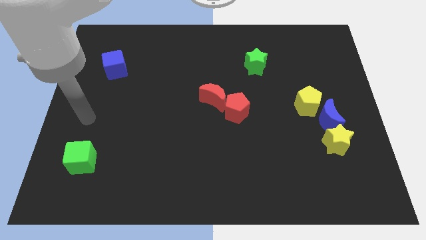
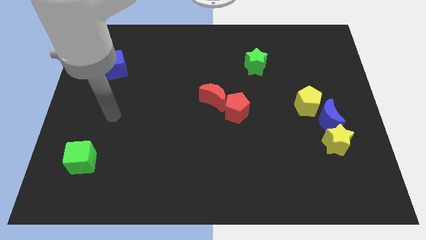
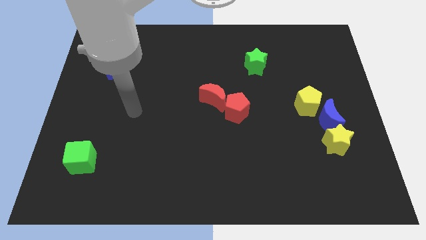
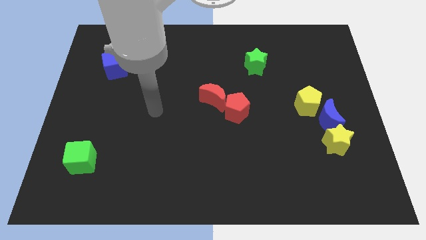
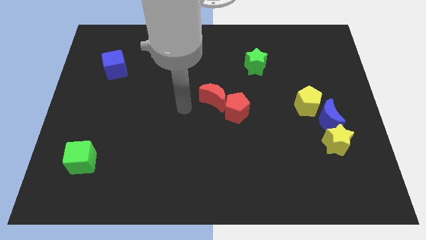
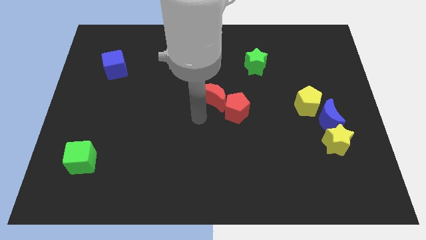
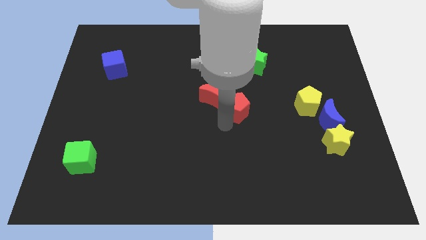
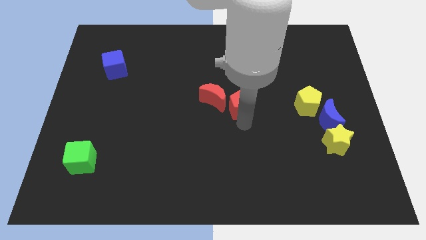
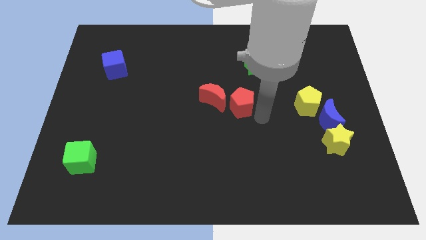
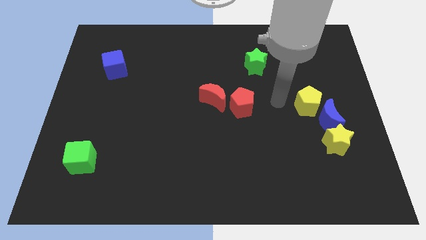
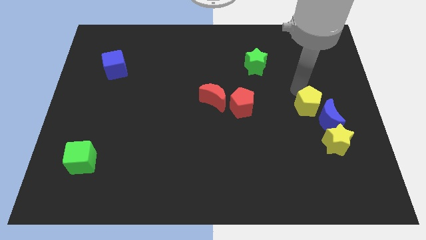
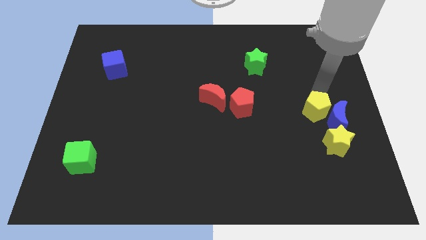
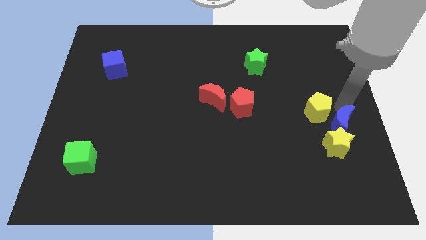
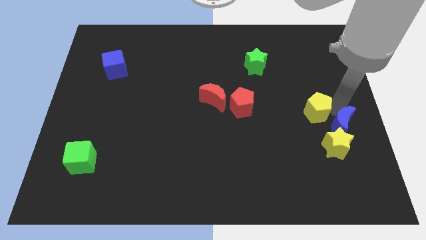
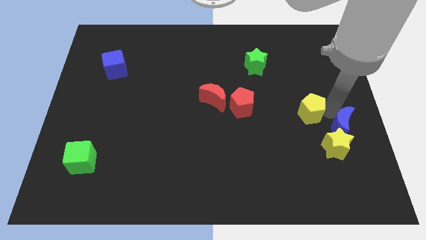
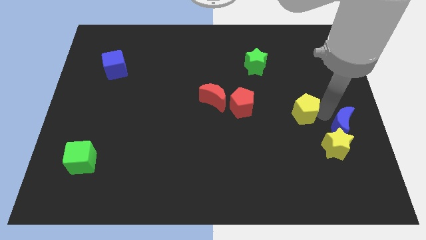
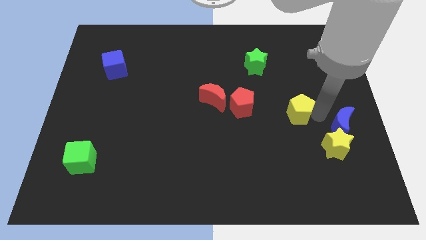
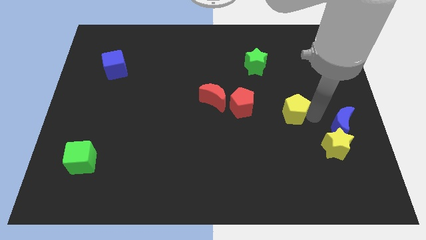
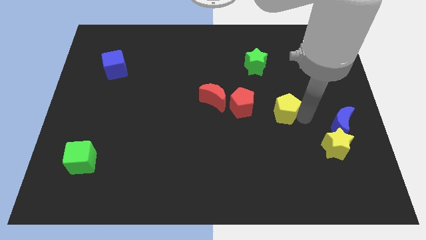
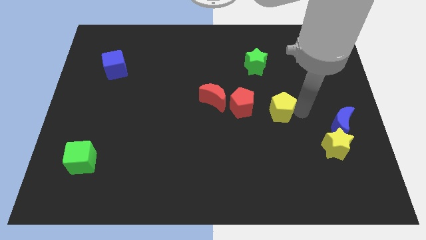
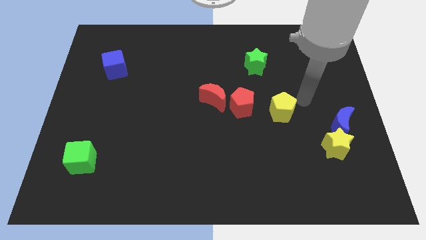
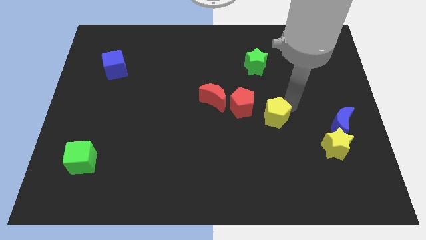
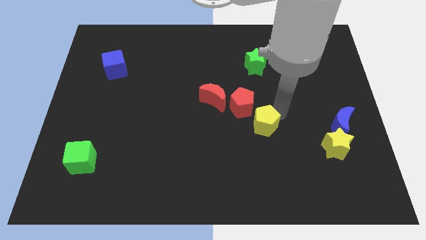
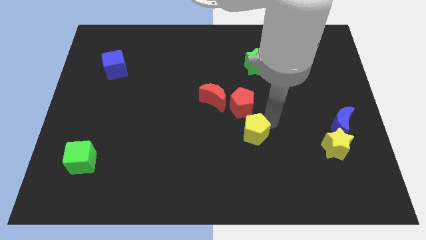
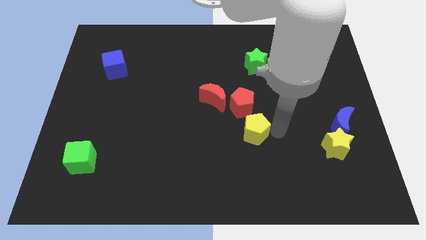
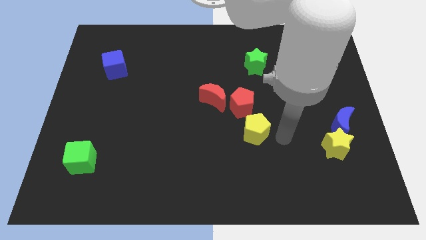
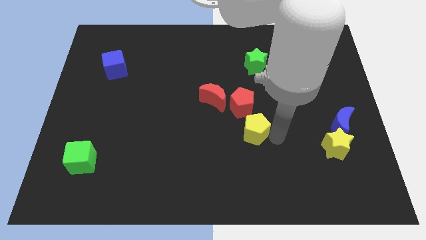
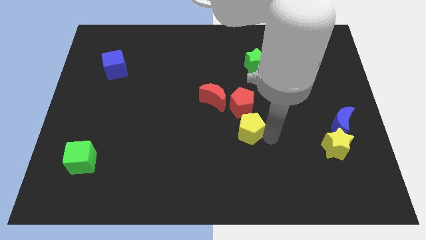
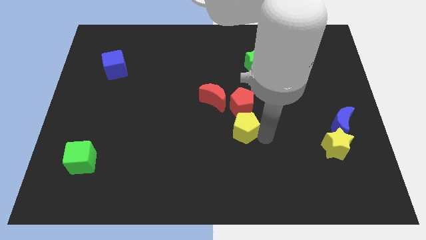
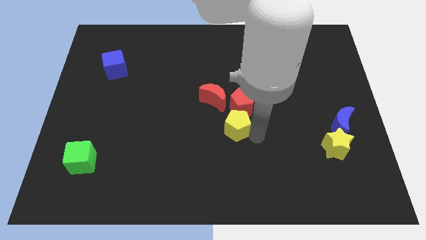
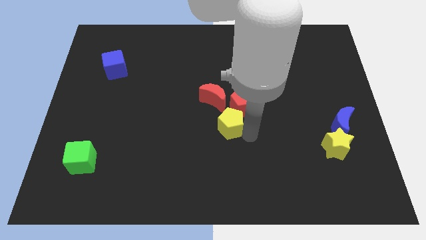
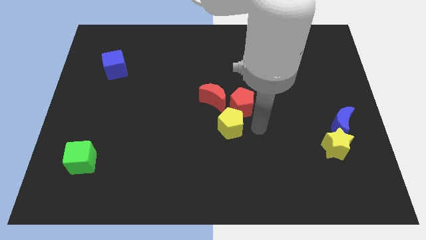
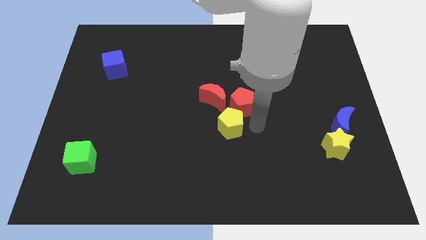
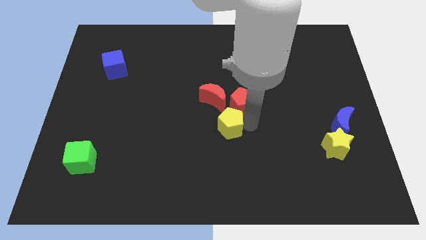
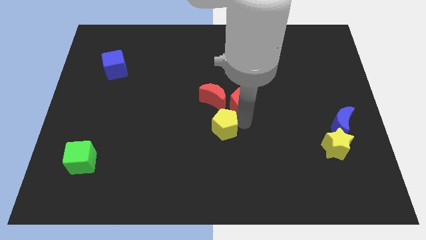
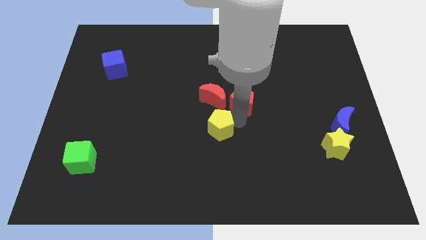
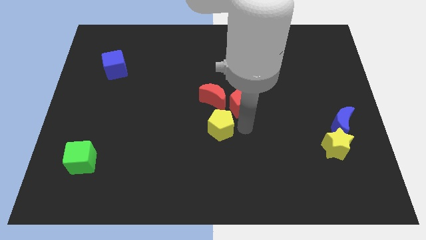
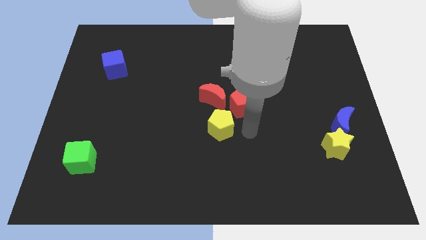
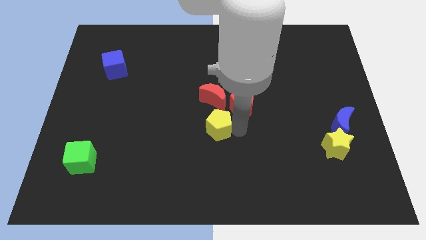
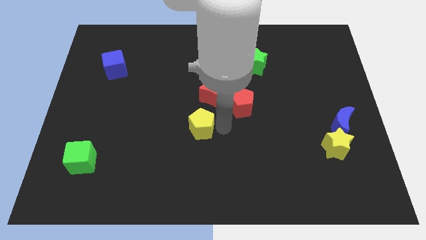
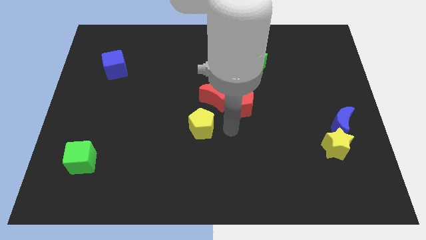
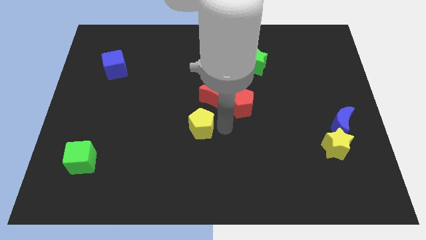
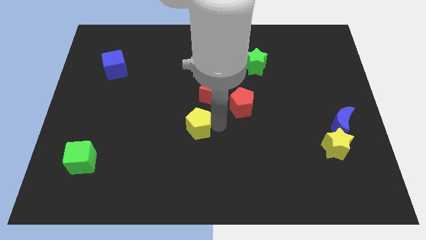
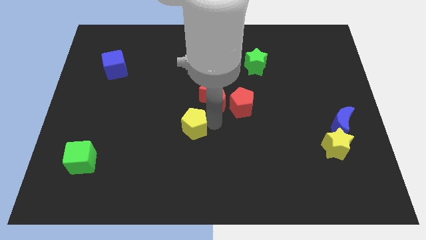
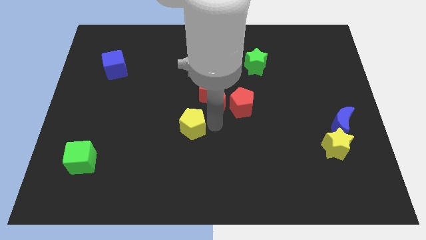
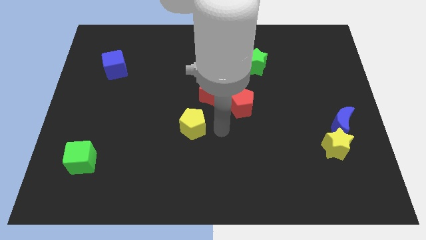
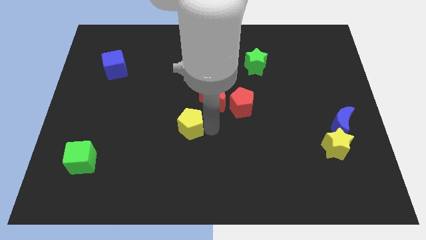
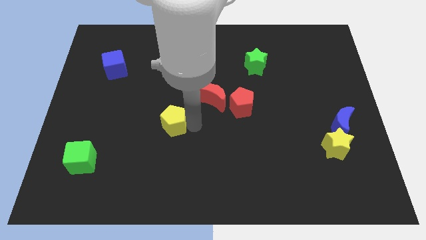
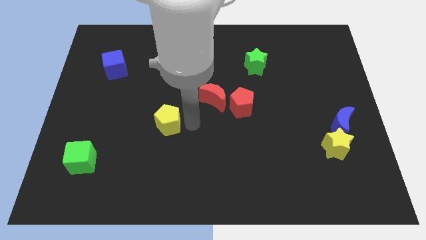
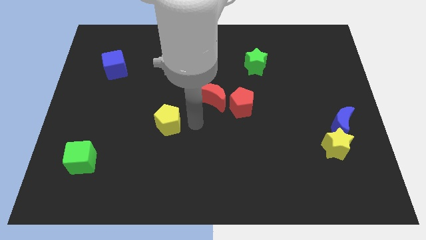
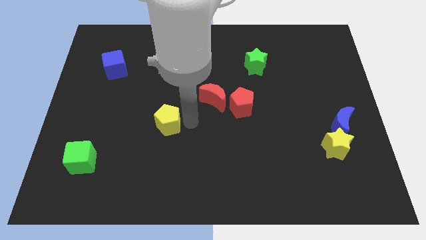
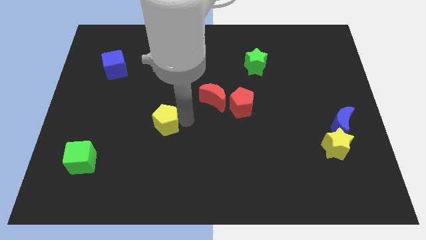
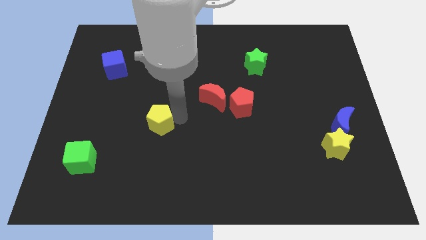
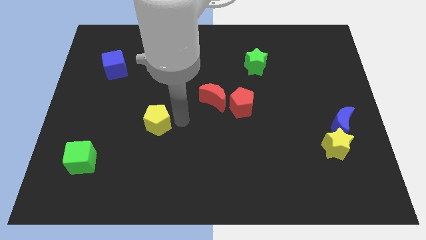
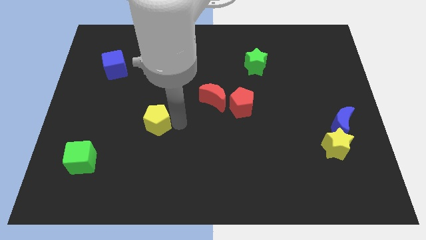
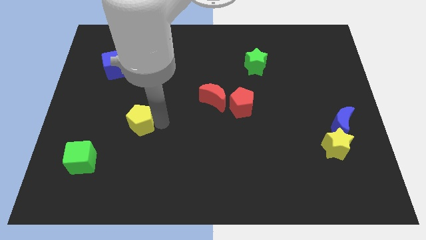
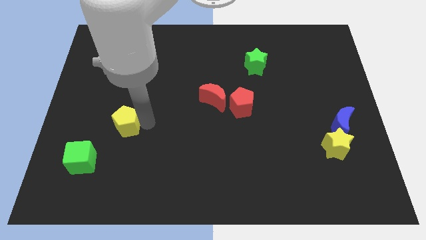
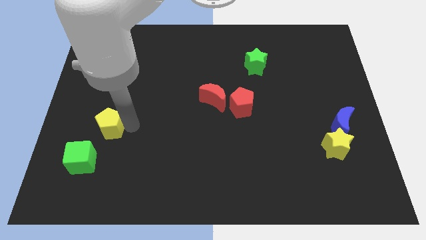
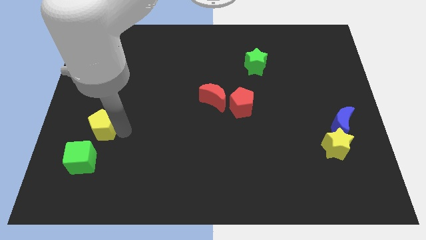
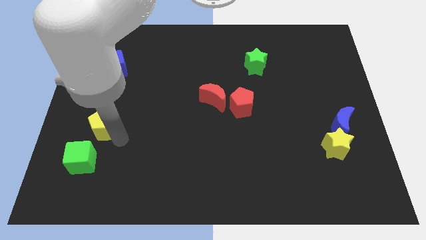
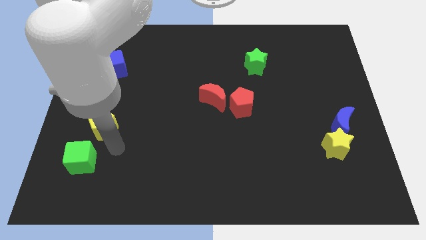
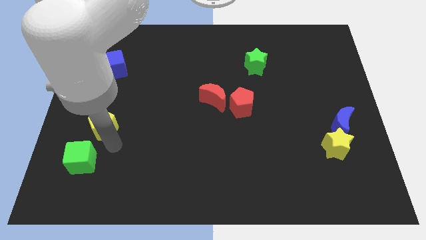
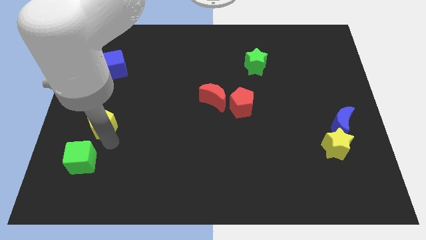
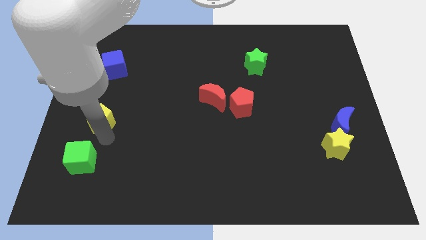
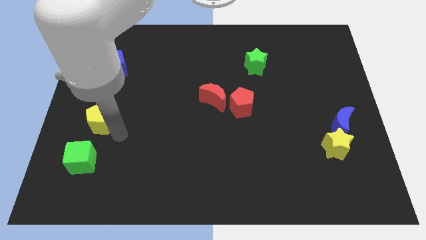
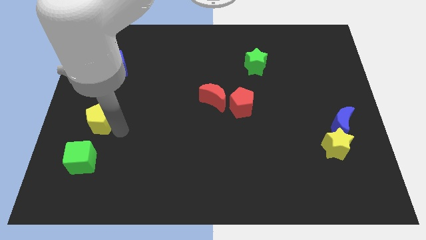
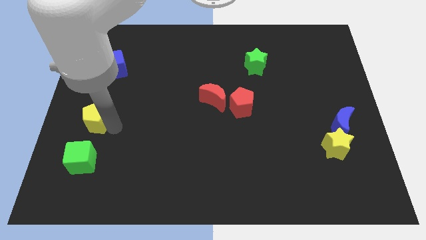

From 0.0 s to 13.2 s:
move the yellow pentagon to the center left
